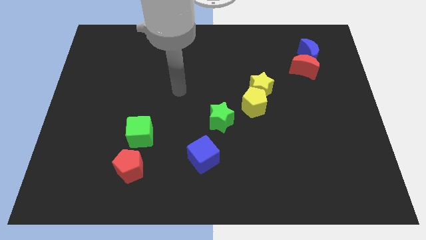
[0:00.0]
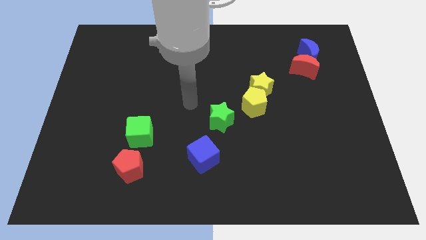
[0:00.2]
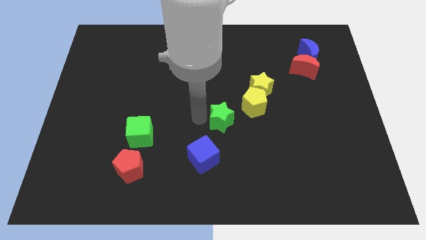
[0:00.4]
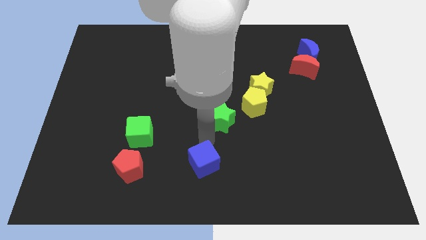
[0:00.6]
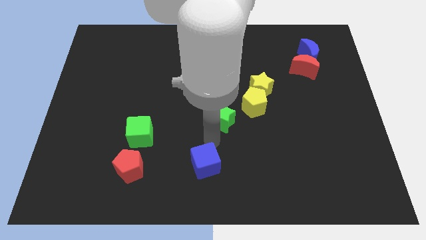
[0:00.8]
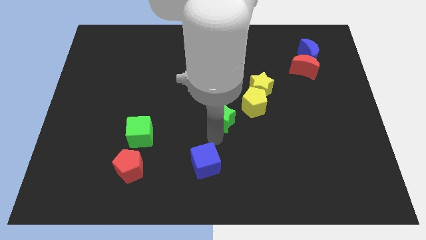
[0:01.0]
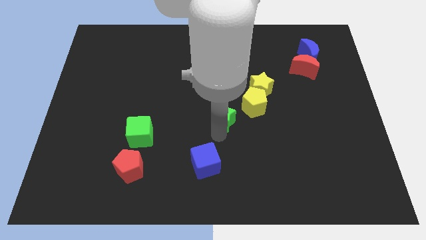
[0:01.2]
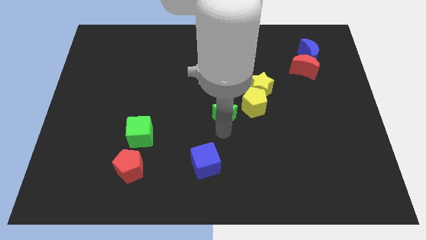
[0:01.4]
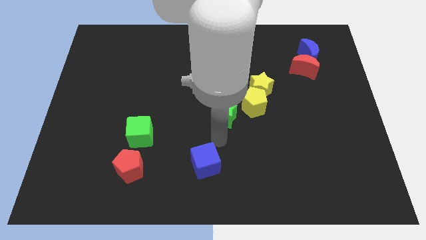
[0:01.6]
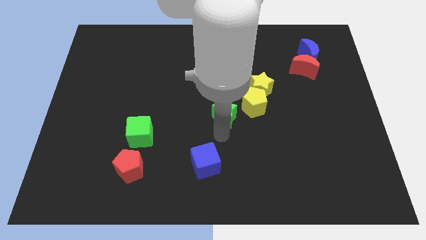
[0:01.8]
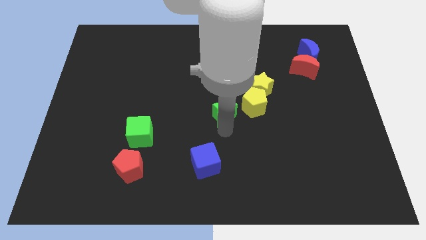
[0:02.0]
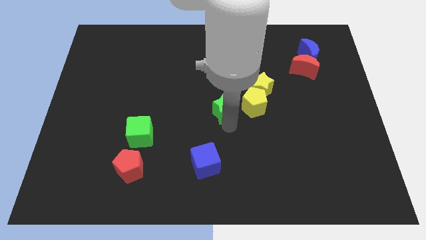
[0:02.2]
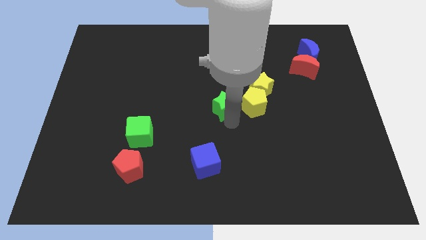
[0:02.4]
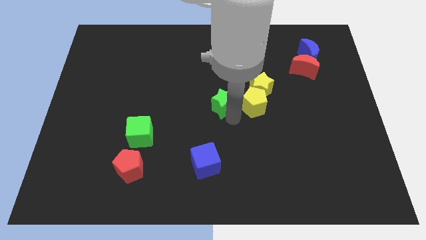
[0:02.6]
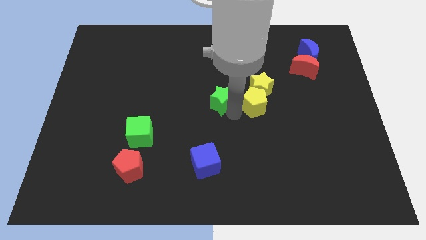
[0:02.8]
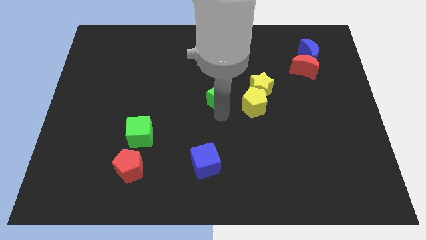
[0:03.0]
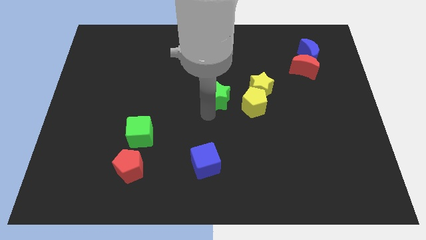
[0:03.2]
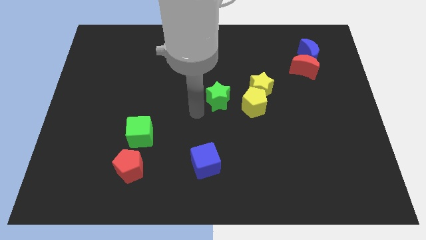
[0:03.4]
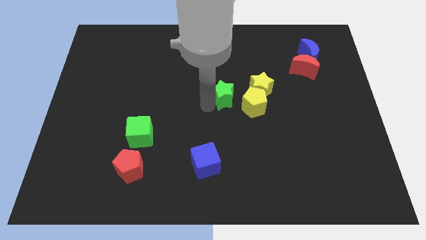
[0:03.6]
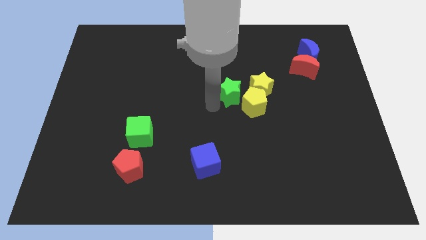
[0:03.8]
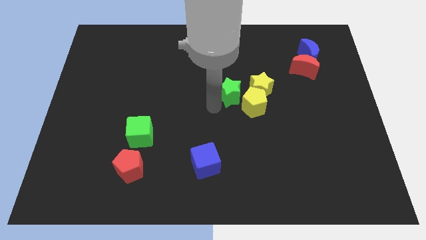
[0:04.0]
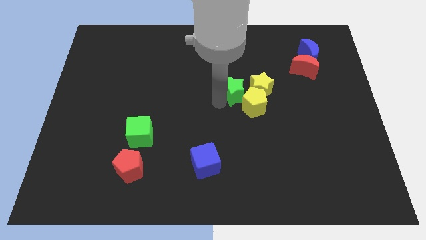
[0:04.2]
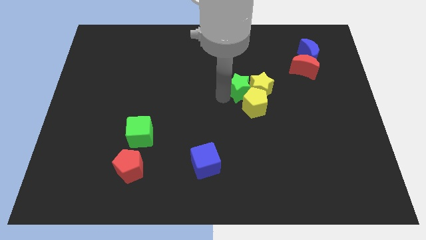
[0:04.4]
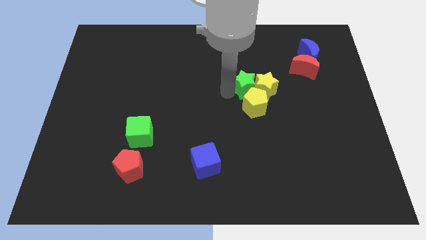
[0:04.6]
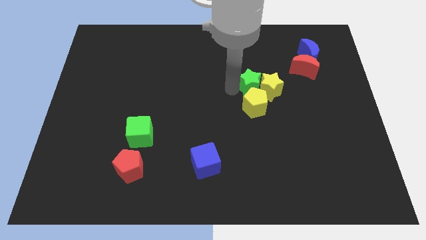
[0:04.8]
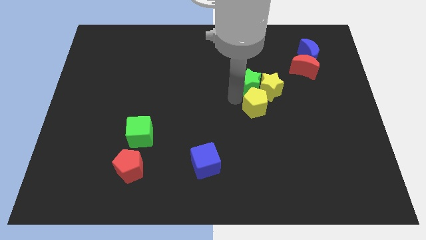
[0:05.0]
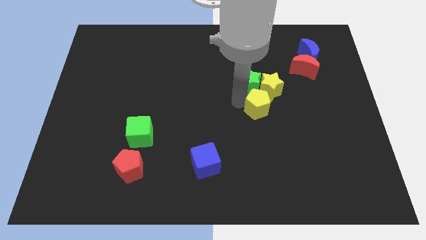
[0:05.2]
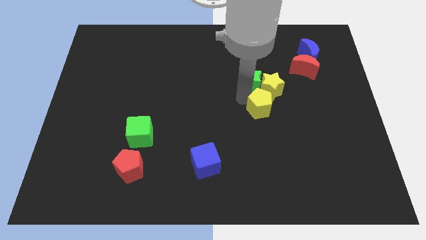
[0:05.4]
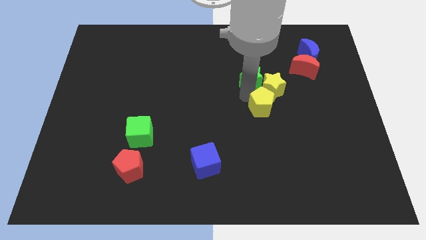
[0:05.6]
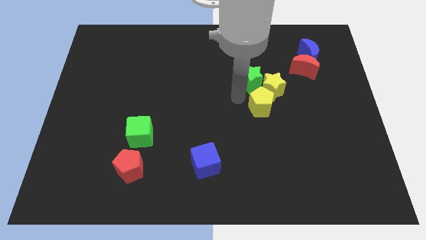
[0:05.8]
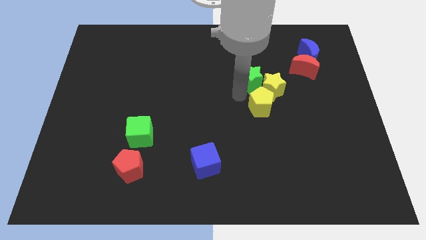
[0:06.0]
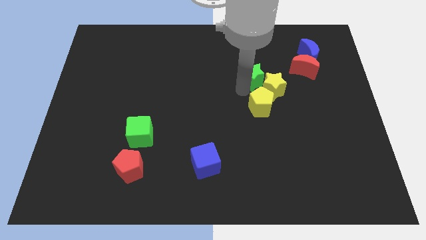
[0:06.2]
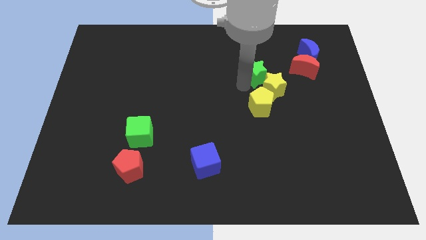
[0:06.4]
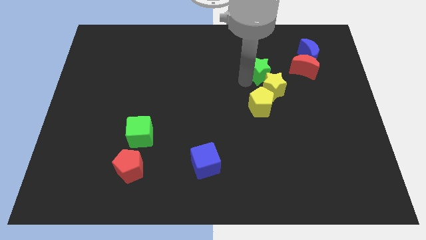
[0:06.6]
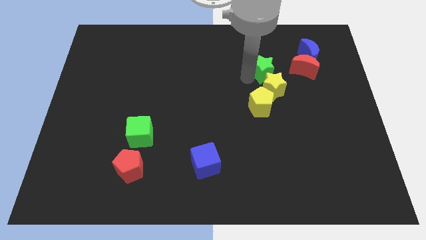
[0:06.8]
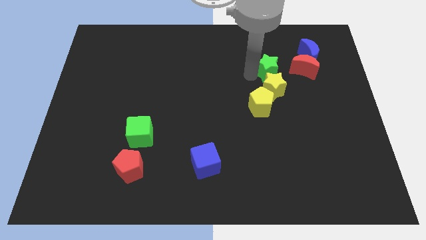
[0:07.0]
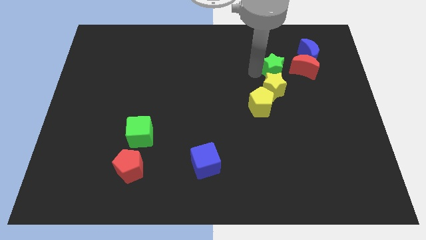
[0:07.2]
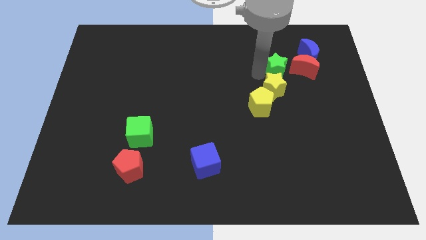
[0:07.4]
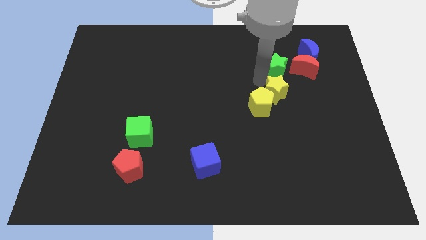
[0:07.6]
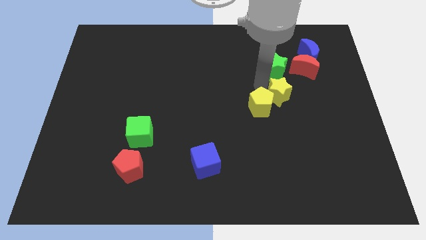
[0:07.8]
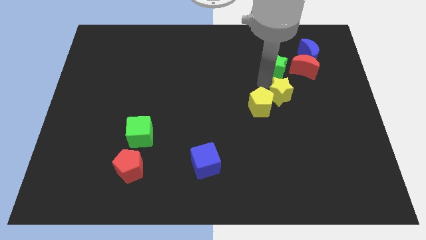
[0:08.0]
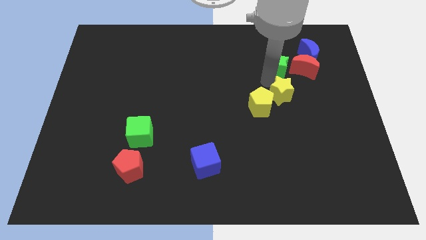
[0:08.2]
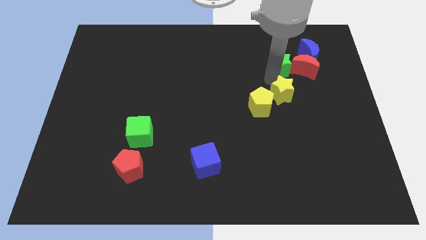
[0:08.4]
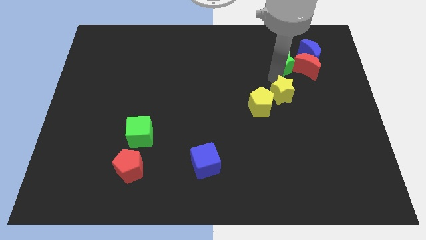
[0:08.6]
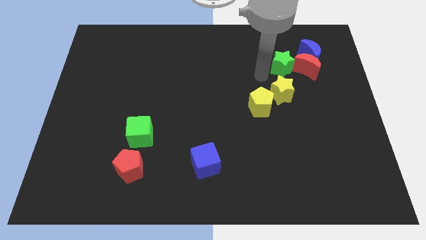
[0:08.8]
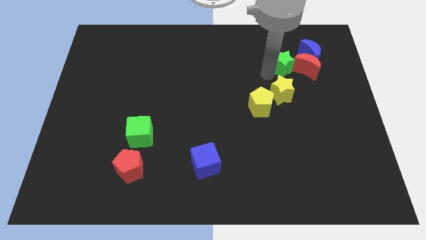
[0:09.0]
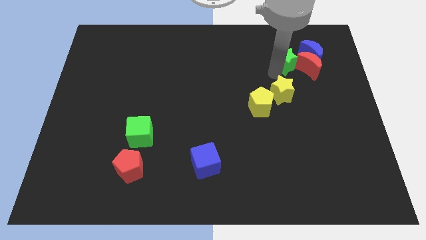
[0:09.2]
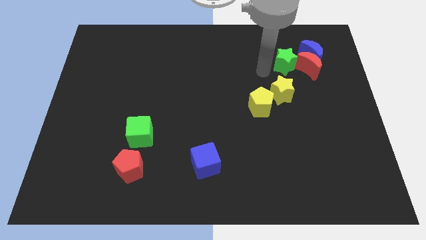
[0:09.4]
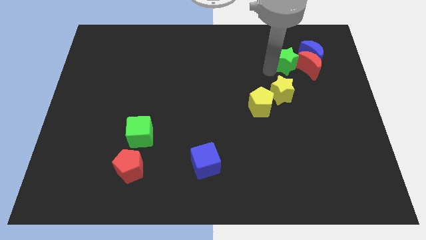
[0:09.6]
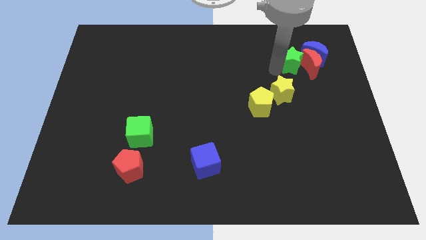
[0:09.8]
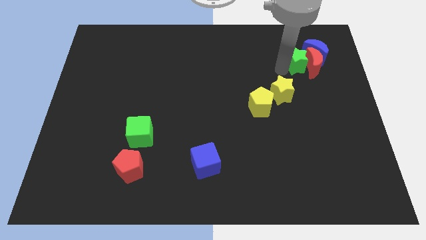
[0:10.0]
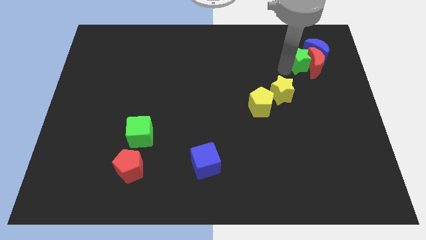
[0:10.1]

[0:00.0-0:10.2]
move the green star towards the blue moon

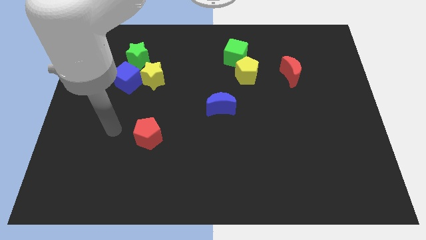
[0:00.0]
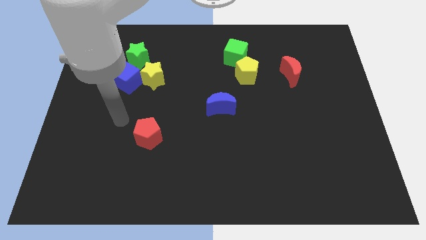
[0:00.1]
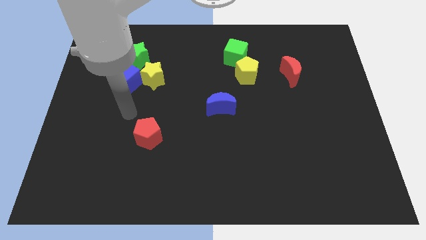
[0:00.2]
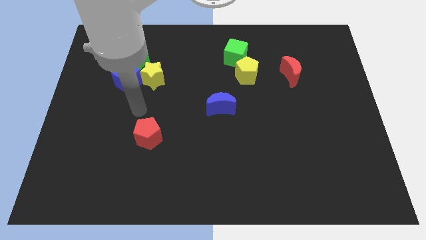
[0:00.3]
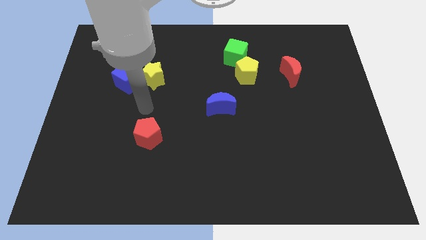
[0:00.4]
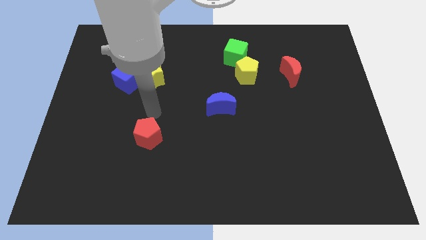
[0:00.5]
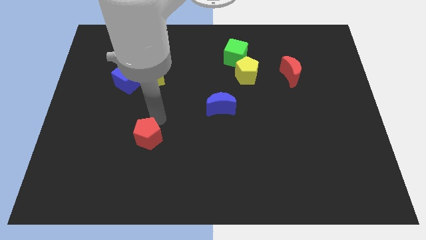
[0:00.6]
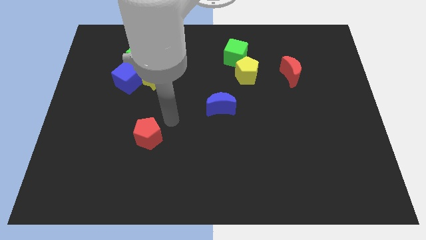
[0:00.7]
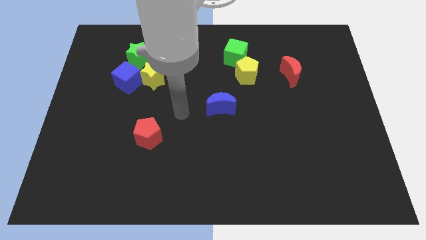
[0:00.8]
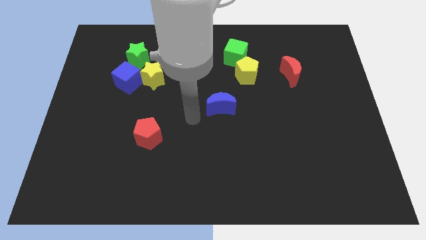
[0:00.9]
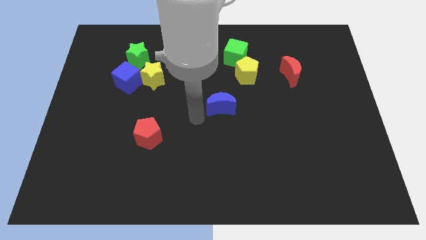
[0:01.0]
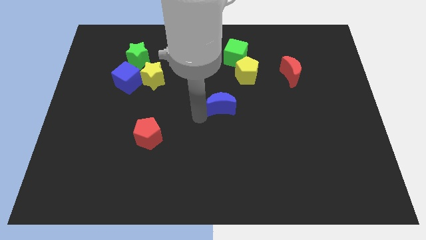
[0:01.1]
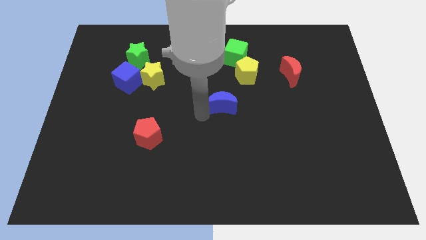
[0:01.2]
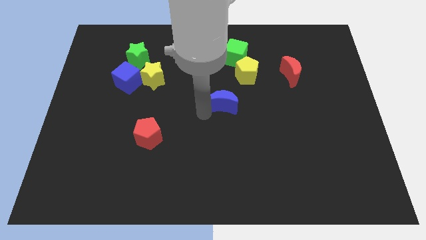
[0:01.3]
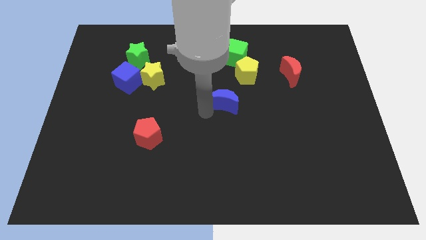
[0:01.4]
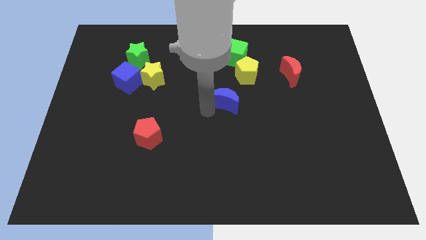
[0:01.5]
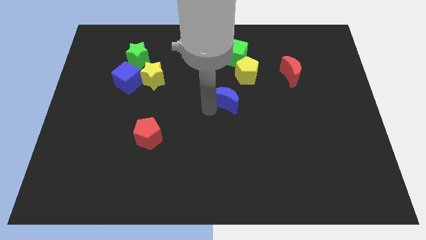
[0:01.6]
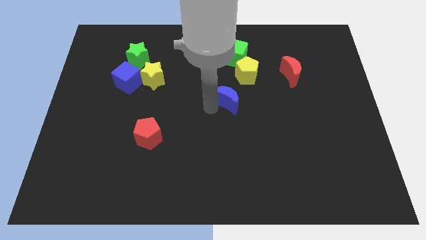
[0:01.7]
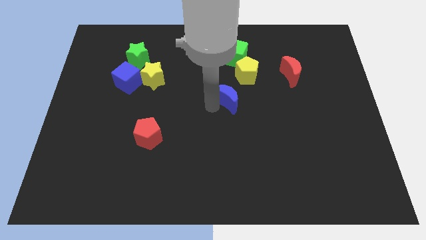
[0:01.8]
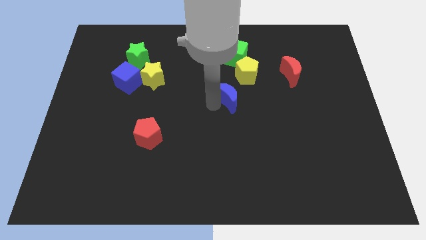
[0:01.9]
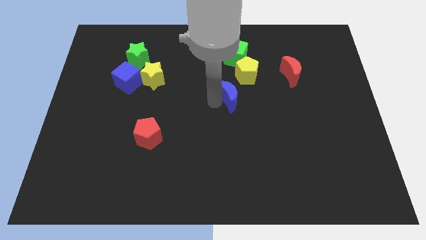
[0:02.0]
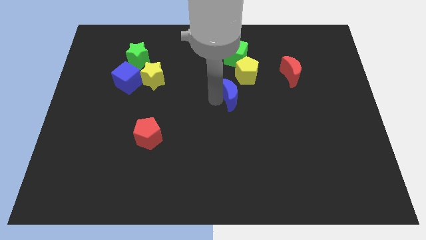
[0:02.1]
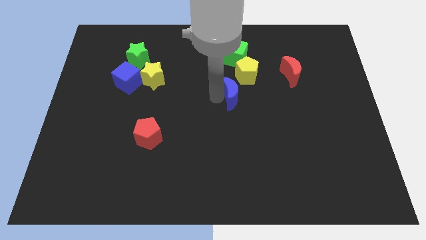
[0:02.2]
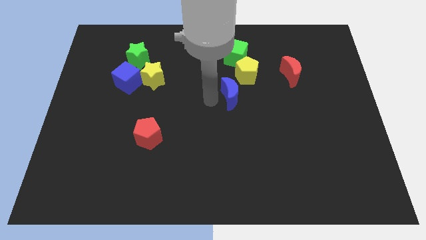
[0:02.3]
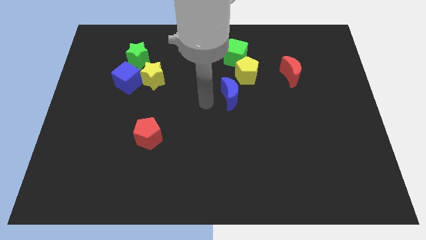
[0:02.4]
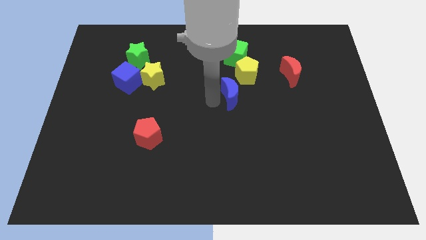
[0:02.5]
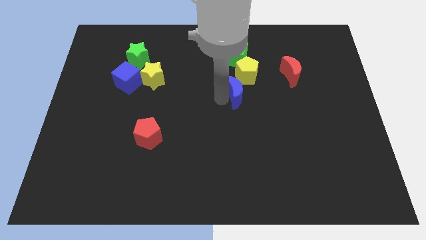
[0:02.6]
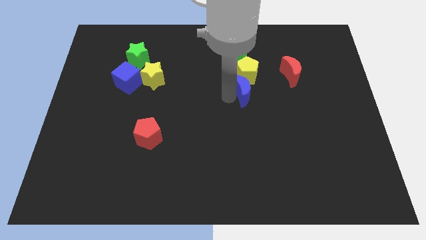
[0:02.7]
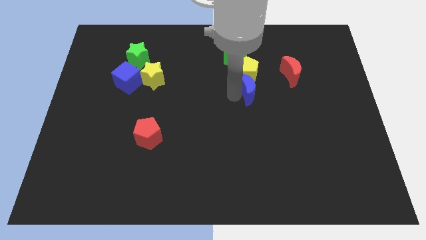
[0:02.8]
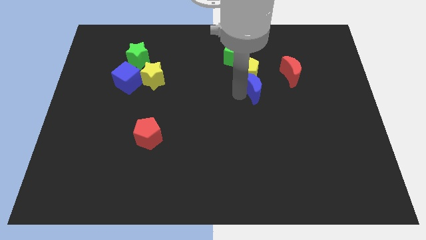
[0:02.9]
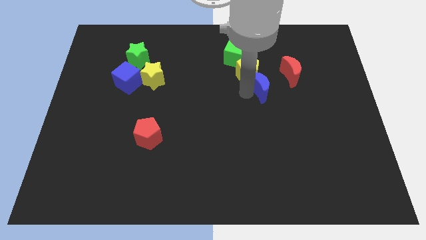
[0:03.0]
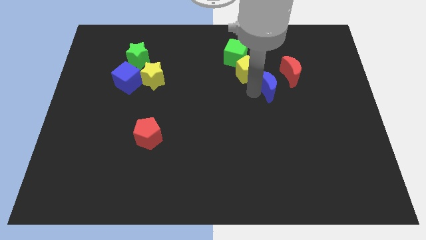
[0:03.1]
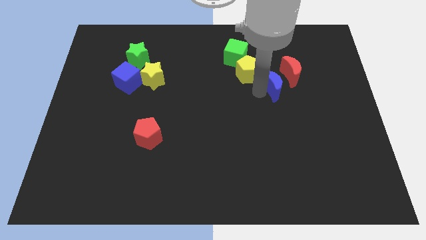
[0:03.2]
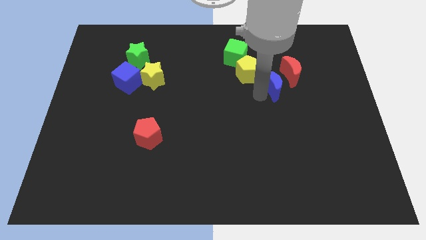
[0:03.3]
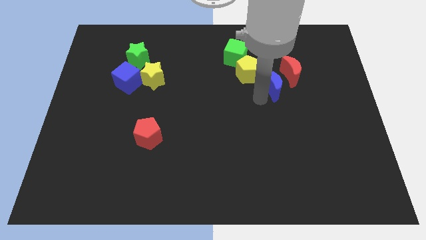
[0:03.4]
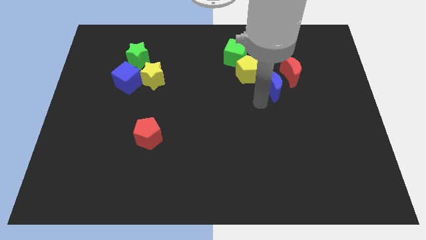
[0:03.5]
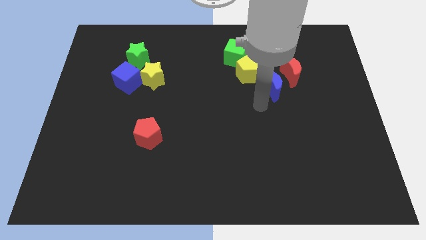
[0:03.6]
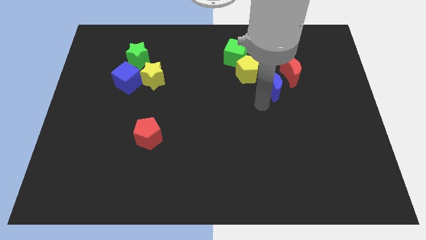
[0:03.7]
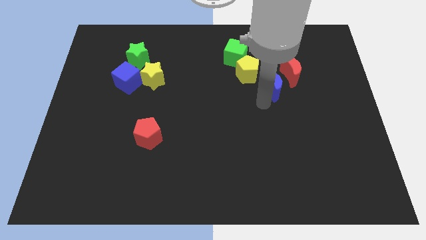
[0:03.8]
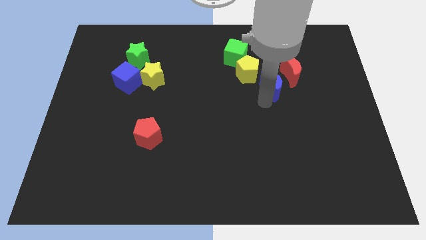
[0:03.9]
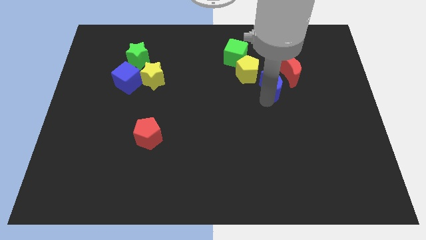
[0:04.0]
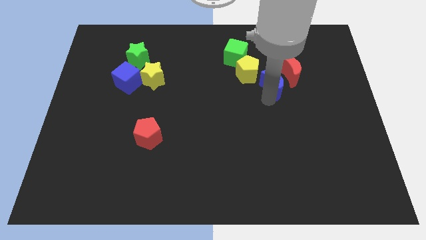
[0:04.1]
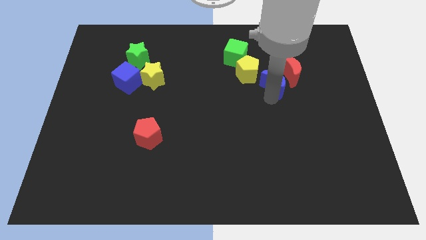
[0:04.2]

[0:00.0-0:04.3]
push the blue moon next to the red moon
